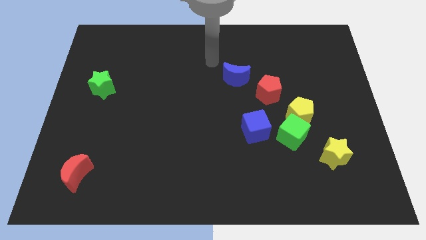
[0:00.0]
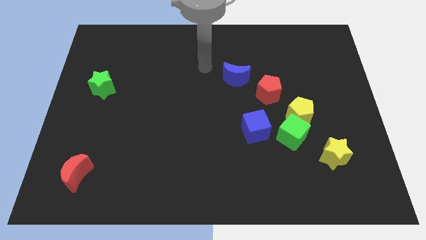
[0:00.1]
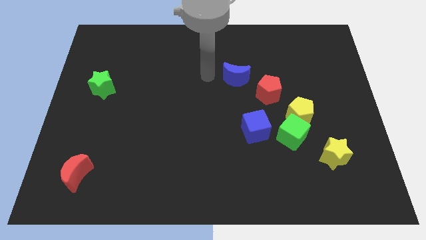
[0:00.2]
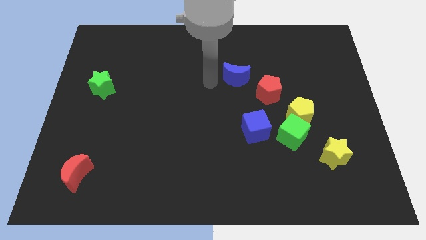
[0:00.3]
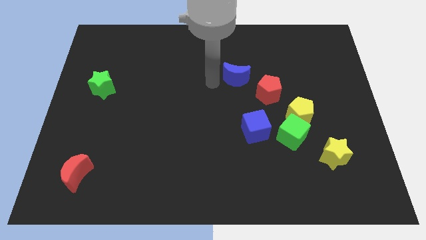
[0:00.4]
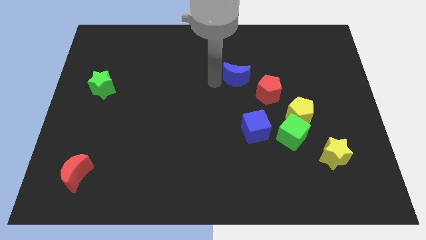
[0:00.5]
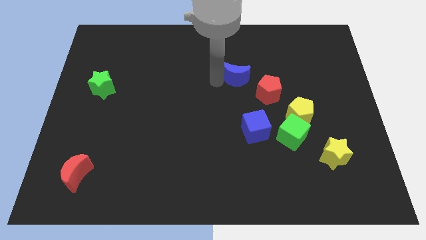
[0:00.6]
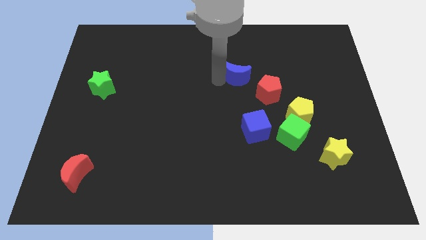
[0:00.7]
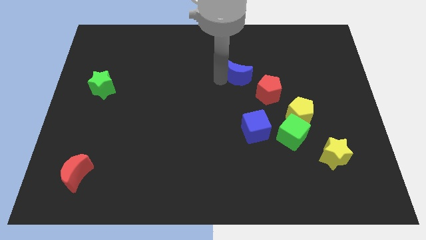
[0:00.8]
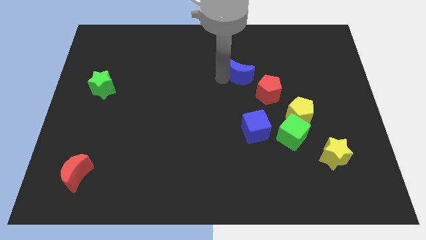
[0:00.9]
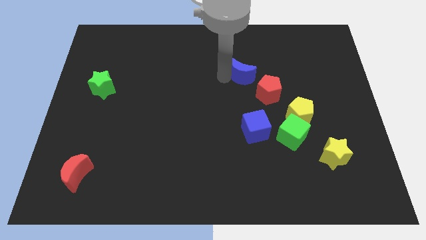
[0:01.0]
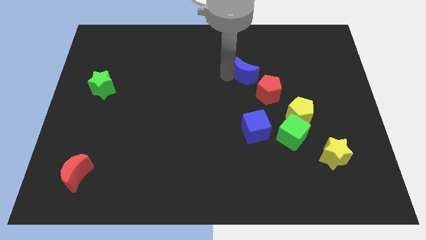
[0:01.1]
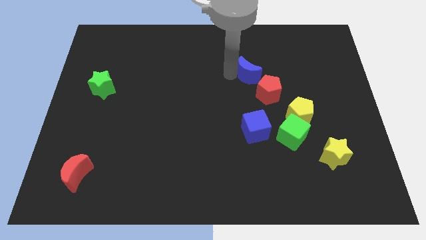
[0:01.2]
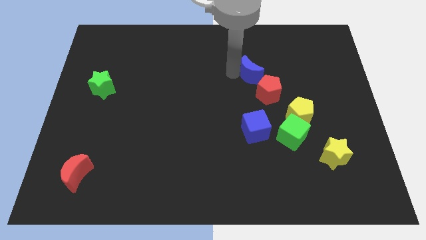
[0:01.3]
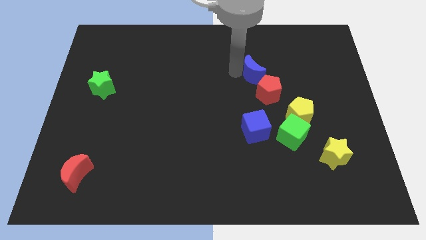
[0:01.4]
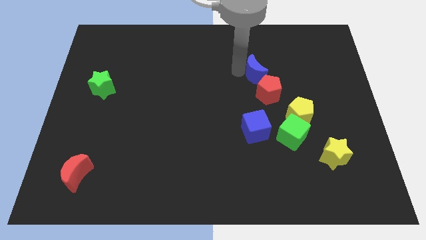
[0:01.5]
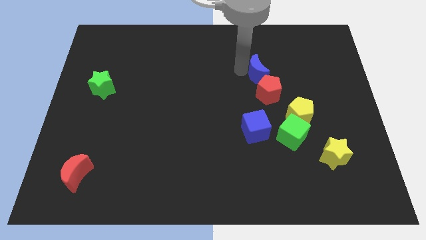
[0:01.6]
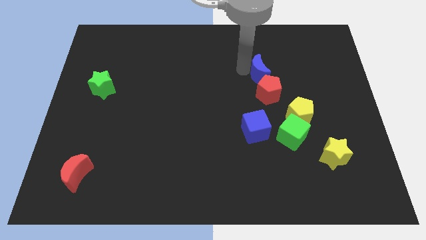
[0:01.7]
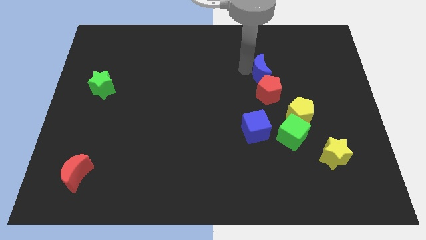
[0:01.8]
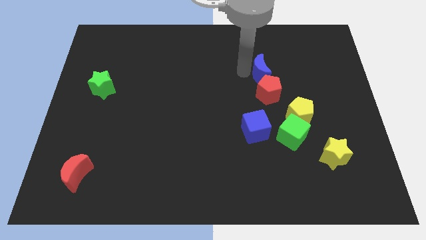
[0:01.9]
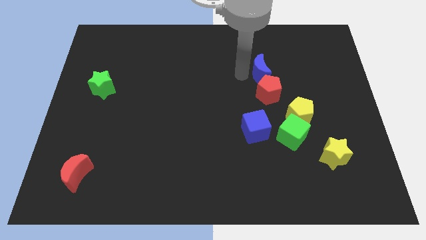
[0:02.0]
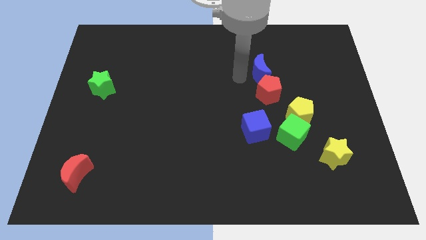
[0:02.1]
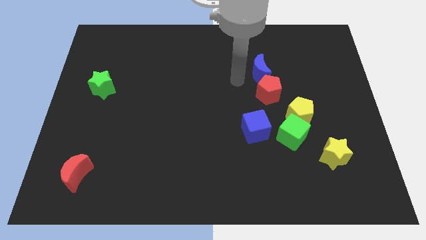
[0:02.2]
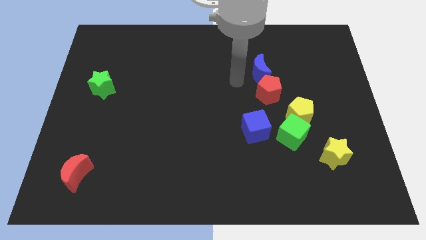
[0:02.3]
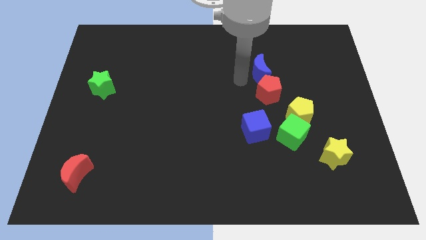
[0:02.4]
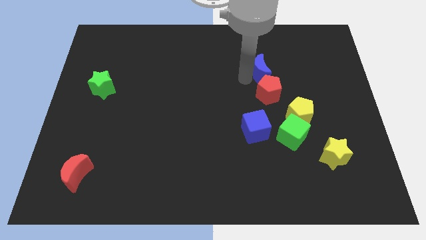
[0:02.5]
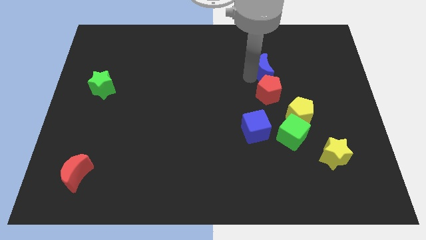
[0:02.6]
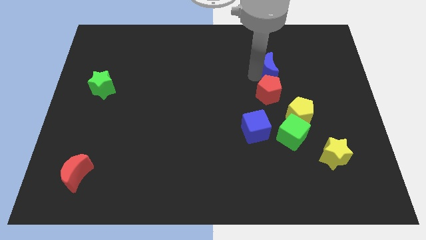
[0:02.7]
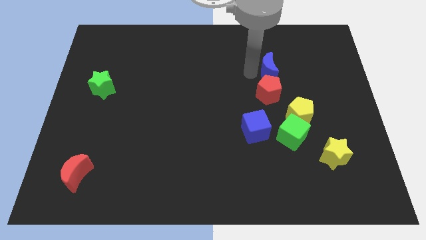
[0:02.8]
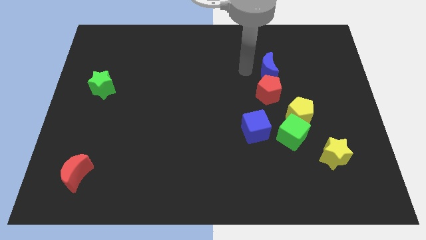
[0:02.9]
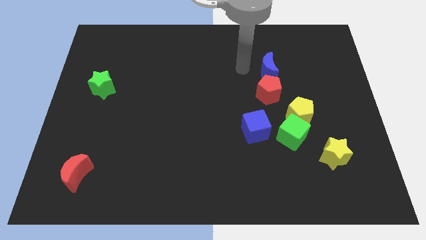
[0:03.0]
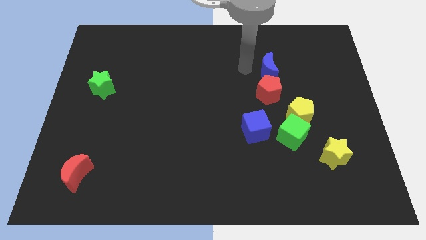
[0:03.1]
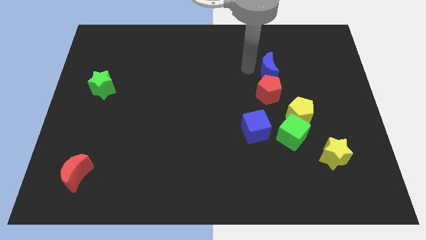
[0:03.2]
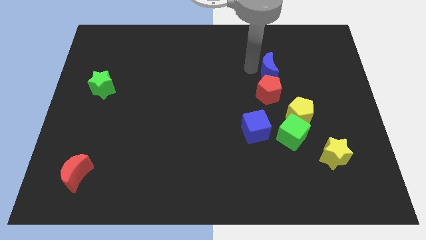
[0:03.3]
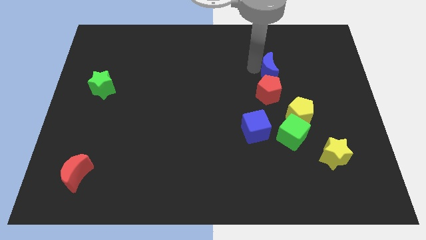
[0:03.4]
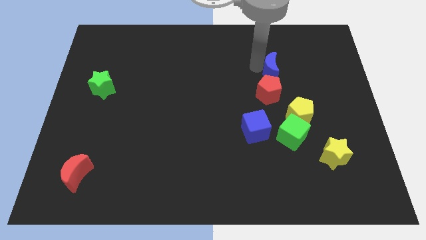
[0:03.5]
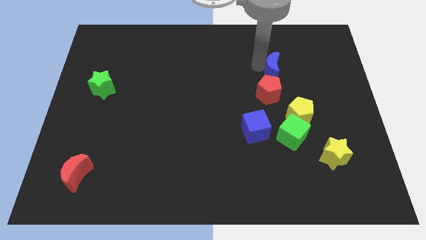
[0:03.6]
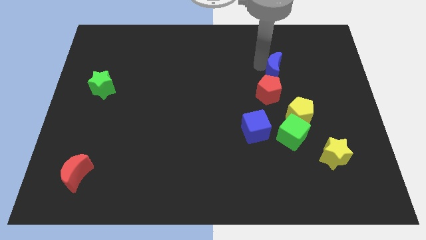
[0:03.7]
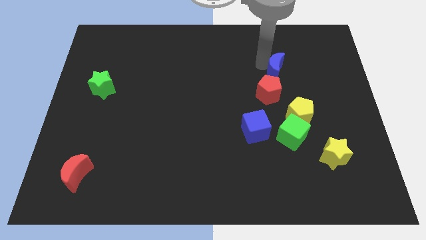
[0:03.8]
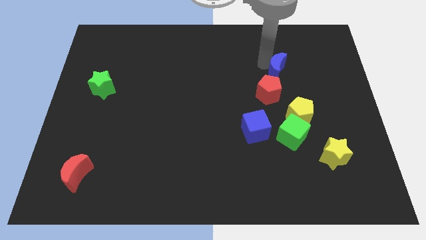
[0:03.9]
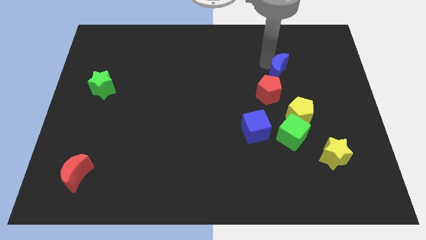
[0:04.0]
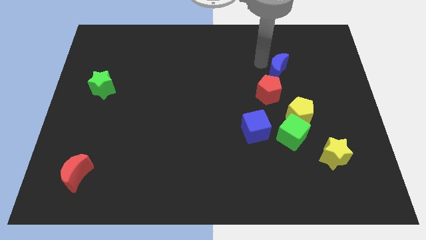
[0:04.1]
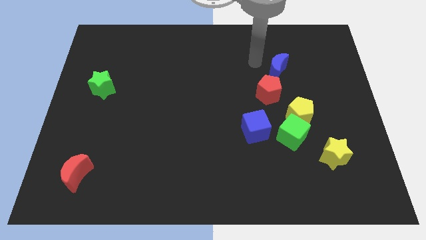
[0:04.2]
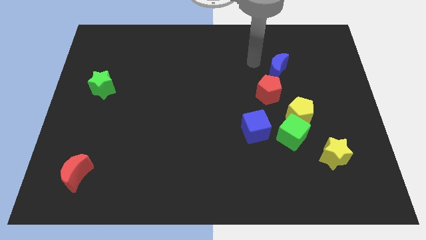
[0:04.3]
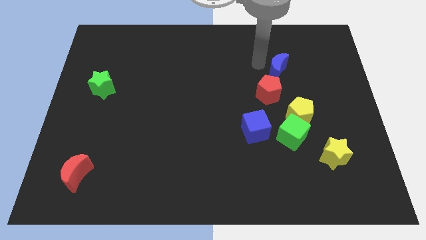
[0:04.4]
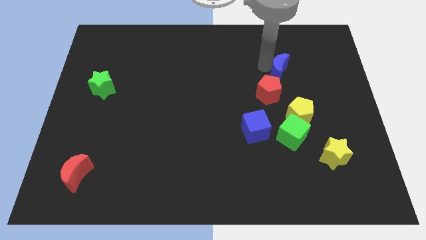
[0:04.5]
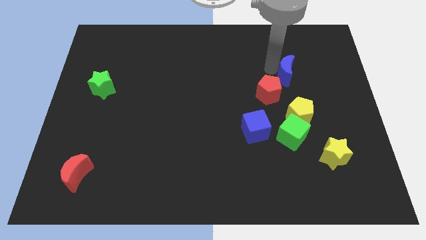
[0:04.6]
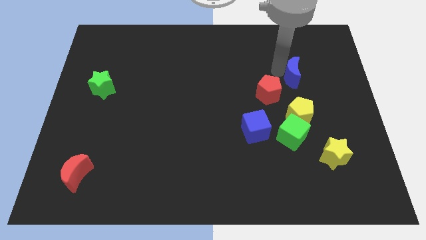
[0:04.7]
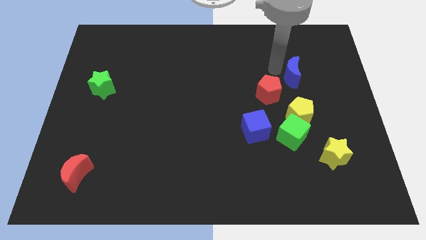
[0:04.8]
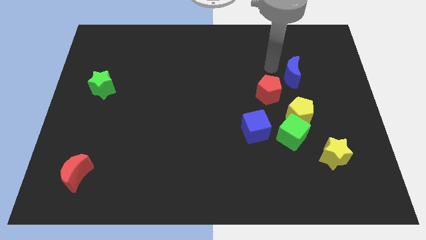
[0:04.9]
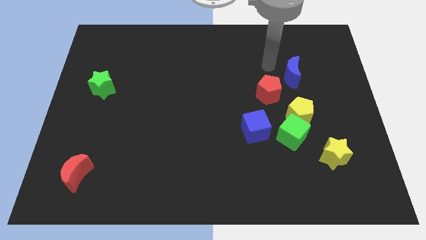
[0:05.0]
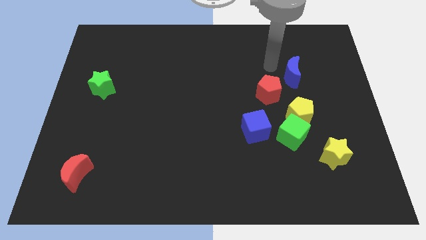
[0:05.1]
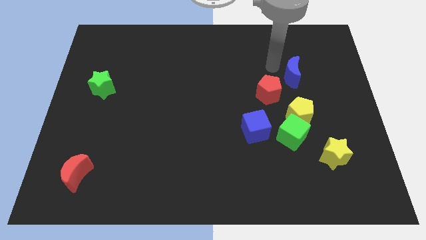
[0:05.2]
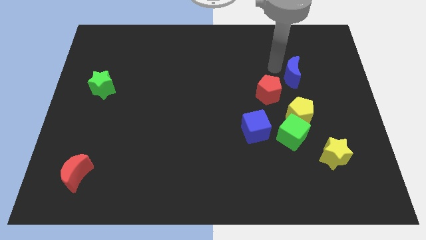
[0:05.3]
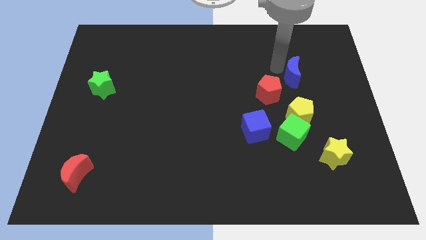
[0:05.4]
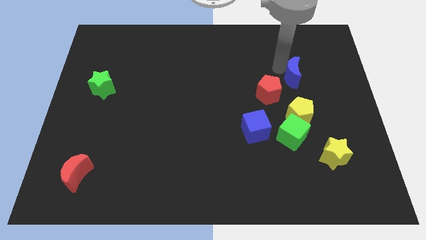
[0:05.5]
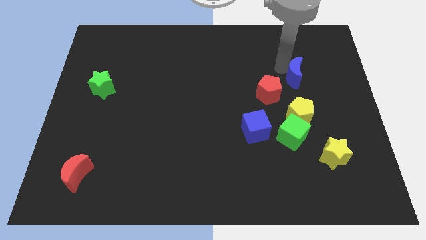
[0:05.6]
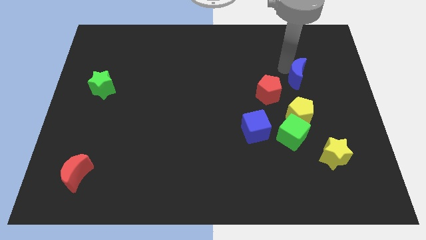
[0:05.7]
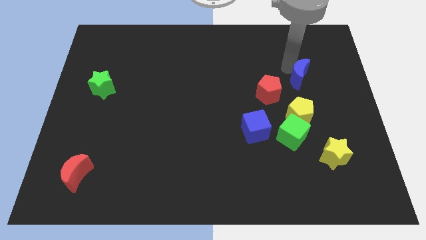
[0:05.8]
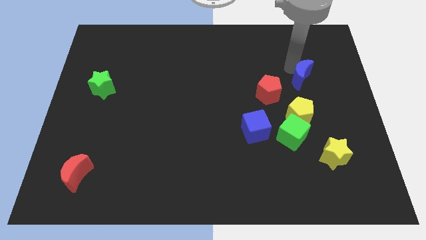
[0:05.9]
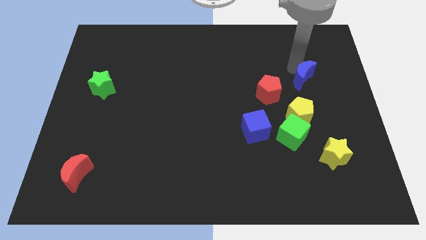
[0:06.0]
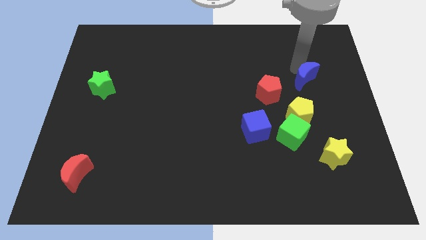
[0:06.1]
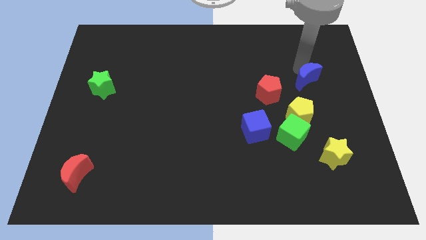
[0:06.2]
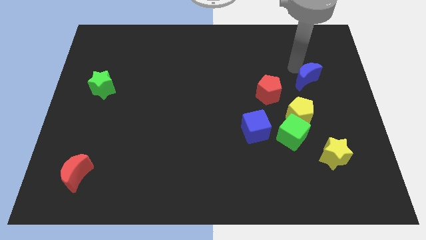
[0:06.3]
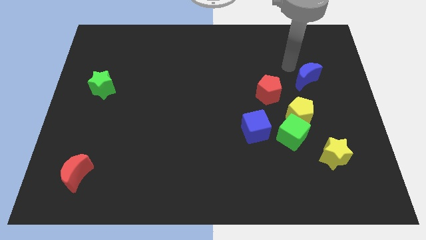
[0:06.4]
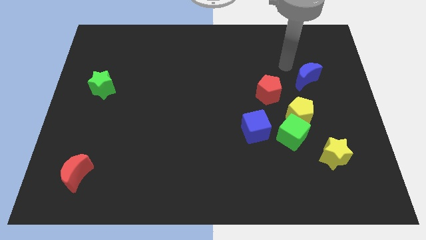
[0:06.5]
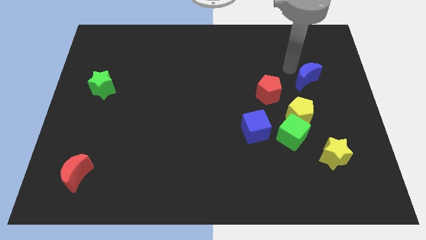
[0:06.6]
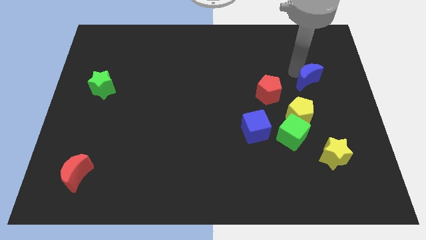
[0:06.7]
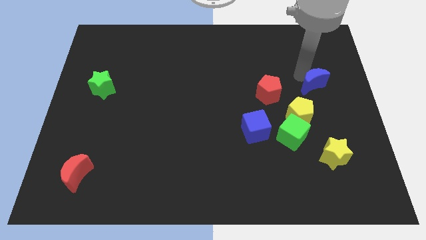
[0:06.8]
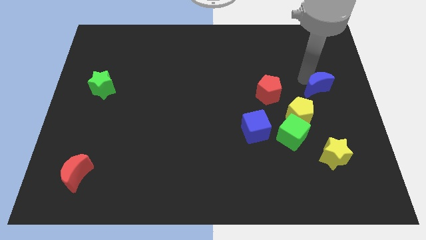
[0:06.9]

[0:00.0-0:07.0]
slide the blue moon to the right side
